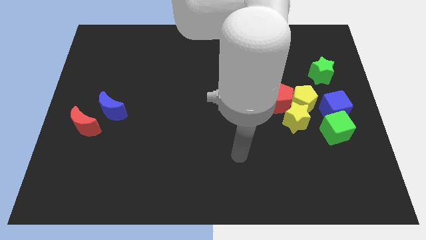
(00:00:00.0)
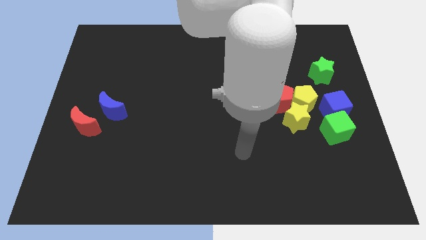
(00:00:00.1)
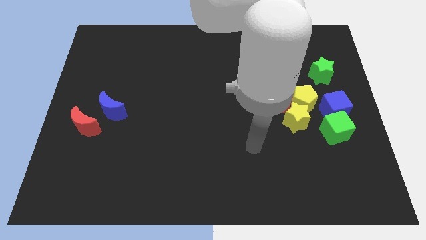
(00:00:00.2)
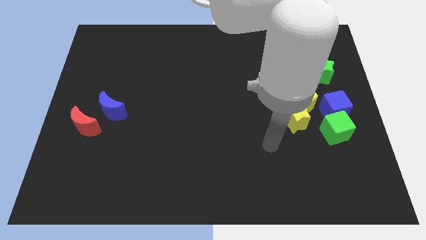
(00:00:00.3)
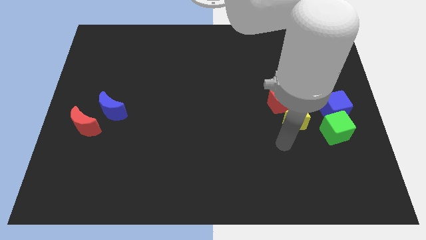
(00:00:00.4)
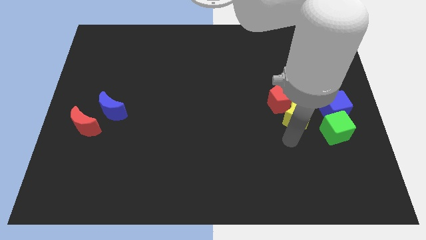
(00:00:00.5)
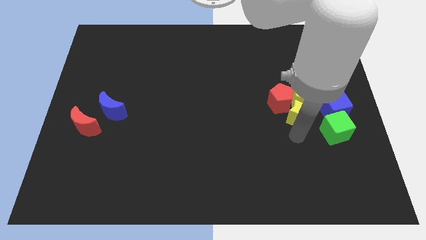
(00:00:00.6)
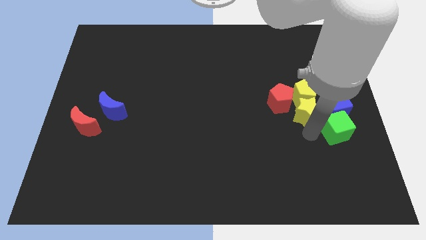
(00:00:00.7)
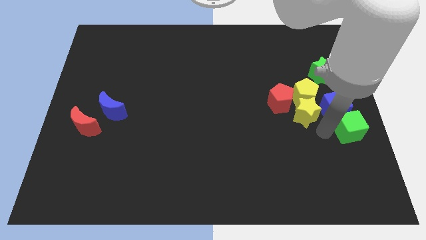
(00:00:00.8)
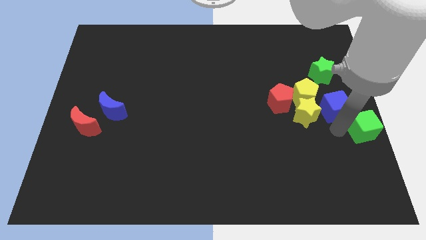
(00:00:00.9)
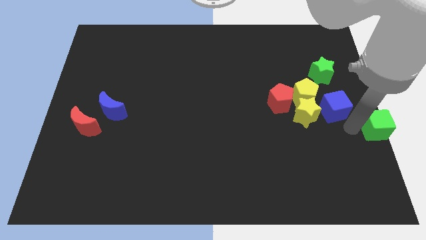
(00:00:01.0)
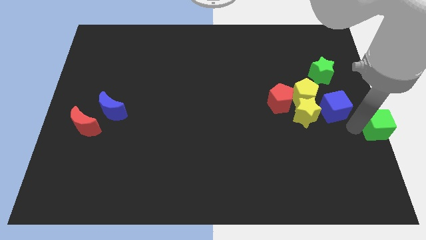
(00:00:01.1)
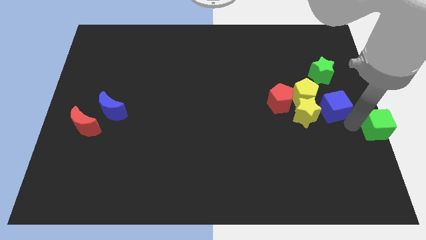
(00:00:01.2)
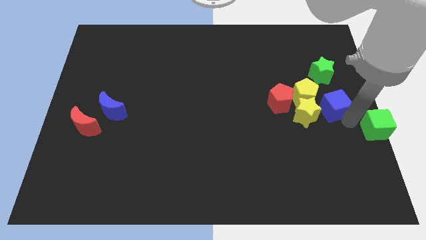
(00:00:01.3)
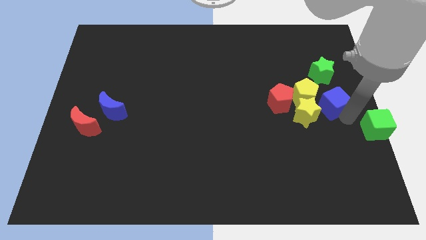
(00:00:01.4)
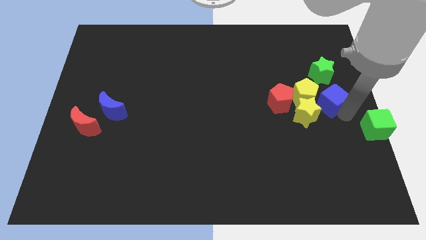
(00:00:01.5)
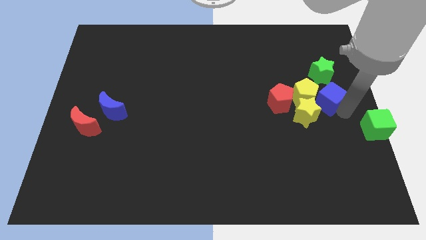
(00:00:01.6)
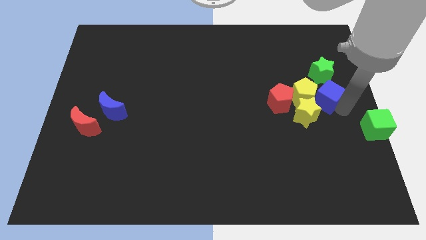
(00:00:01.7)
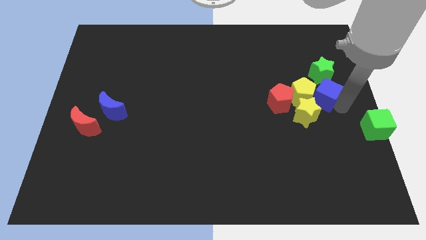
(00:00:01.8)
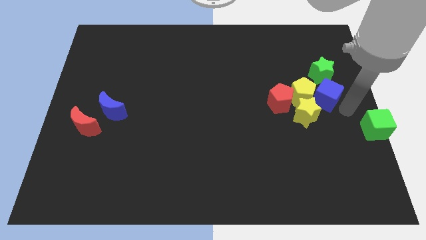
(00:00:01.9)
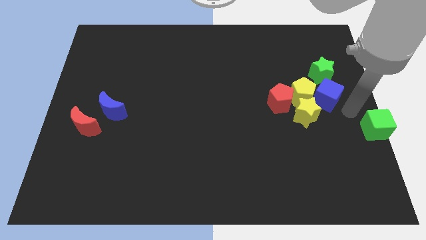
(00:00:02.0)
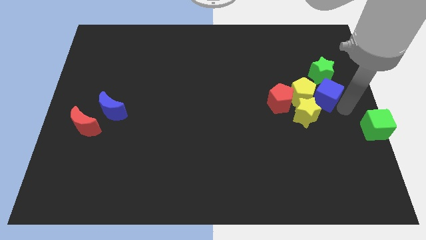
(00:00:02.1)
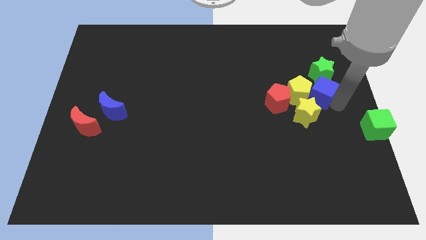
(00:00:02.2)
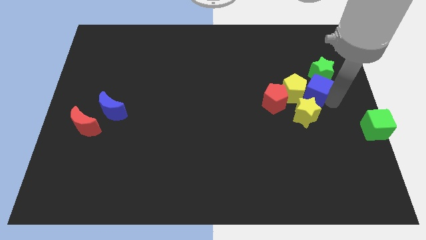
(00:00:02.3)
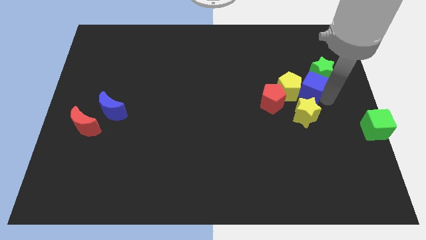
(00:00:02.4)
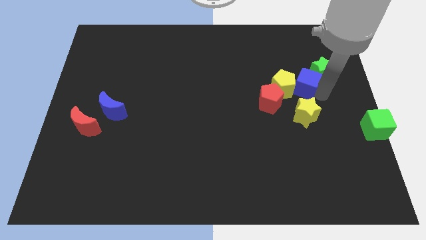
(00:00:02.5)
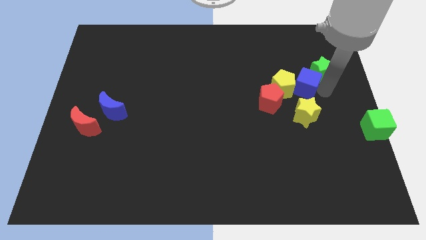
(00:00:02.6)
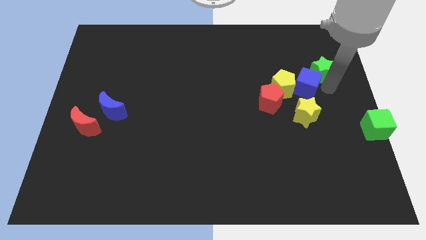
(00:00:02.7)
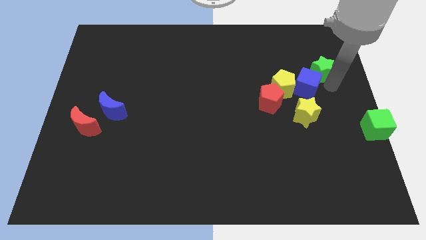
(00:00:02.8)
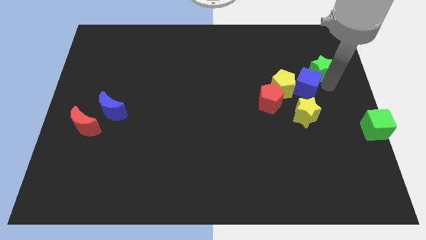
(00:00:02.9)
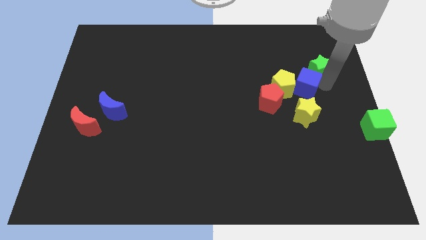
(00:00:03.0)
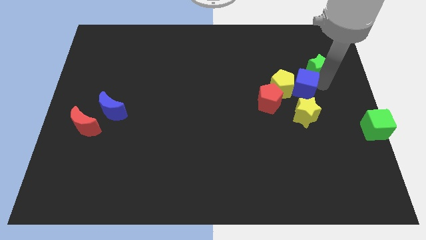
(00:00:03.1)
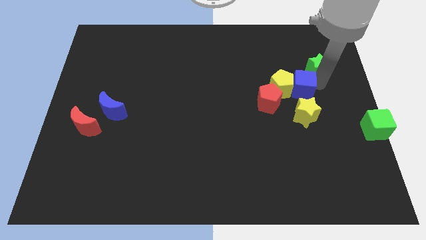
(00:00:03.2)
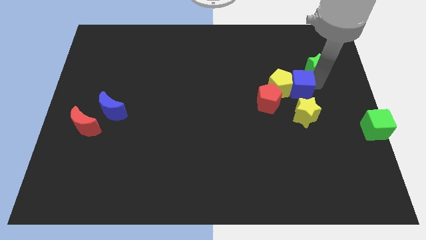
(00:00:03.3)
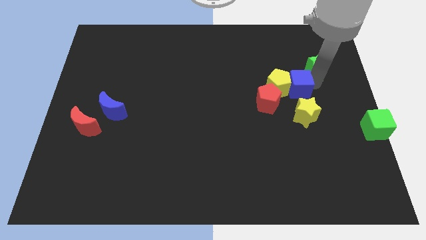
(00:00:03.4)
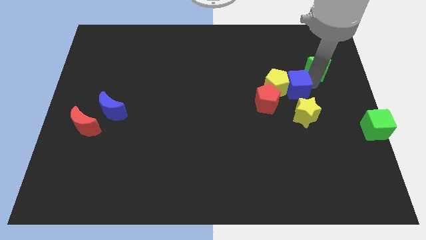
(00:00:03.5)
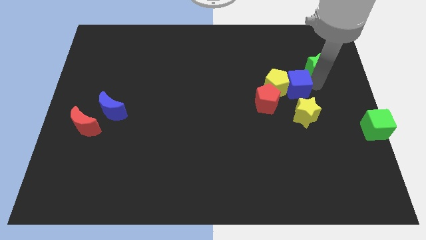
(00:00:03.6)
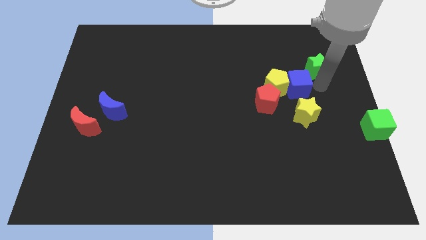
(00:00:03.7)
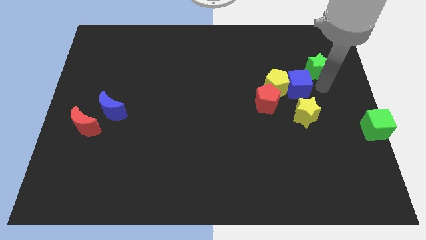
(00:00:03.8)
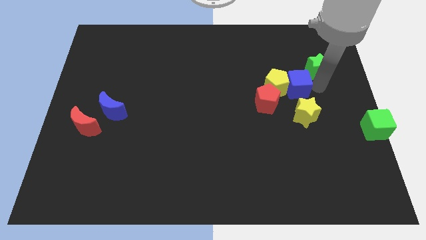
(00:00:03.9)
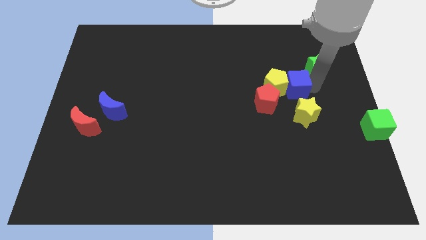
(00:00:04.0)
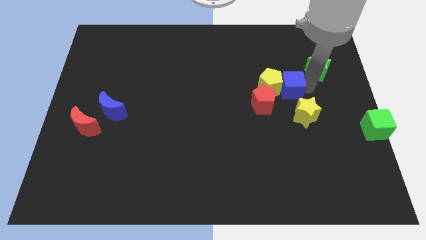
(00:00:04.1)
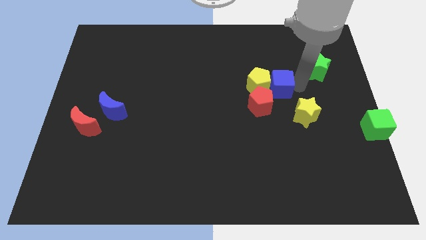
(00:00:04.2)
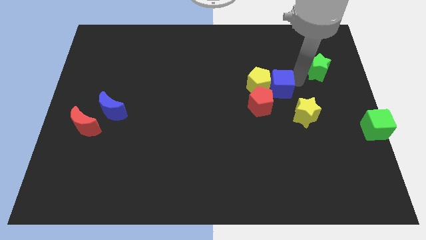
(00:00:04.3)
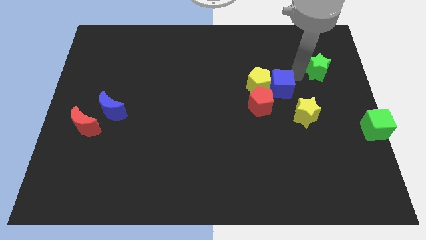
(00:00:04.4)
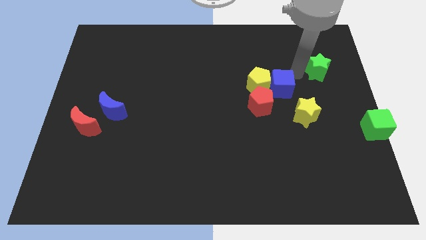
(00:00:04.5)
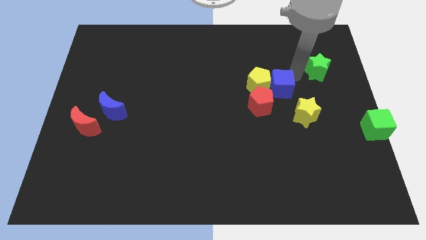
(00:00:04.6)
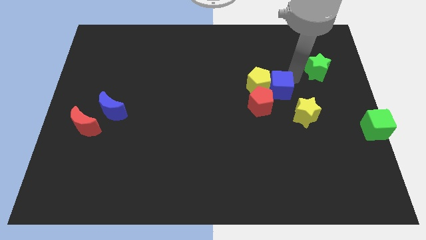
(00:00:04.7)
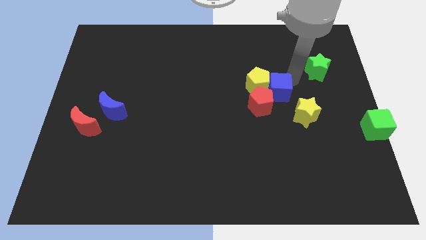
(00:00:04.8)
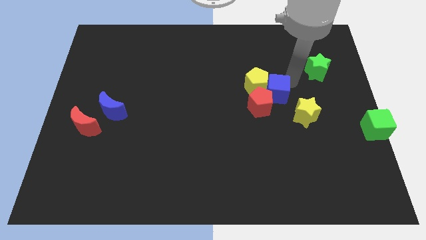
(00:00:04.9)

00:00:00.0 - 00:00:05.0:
move the blue cube close to the red pentagon

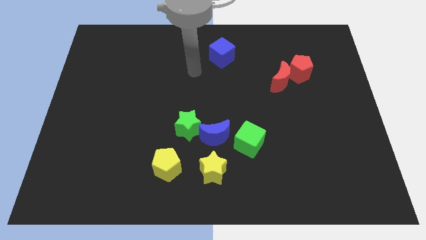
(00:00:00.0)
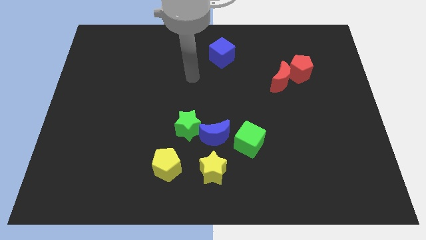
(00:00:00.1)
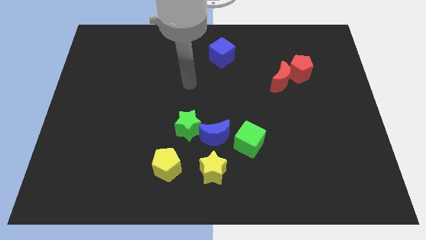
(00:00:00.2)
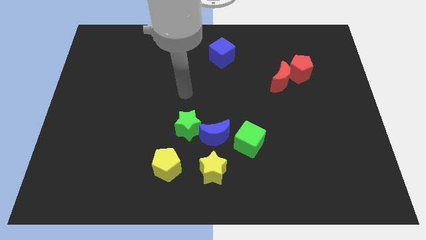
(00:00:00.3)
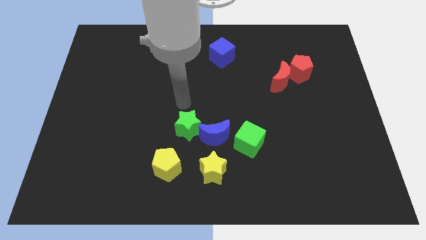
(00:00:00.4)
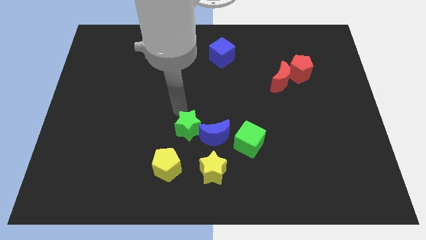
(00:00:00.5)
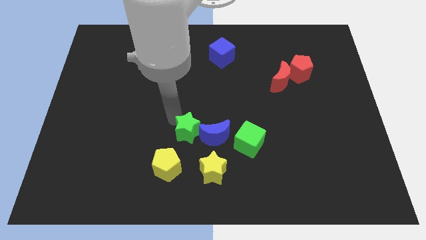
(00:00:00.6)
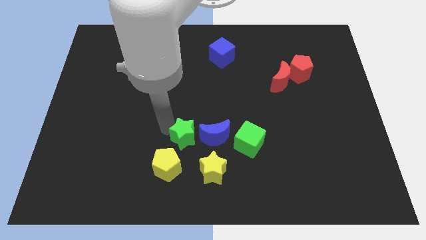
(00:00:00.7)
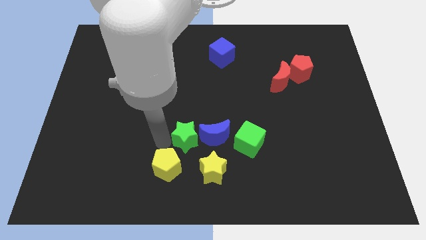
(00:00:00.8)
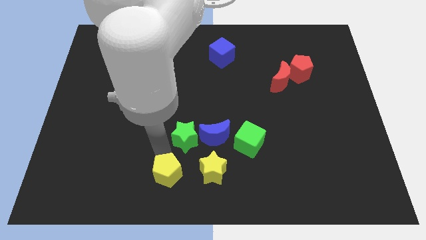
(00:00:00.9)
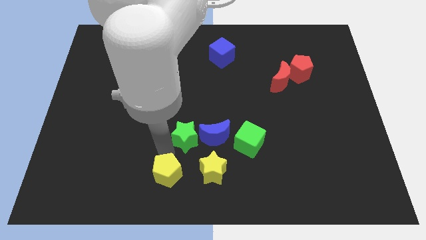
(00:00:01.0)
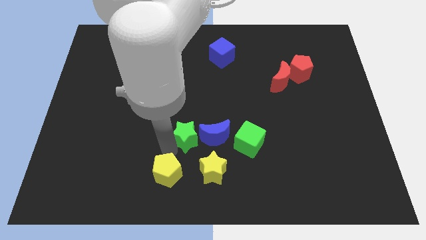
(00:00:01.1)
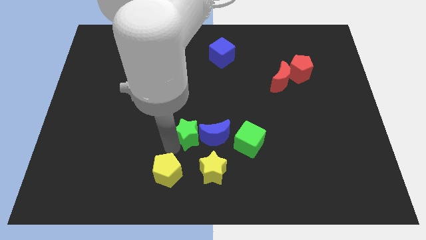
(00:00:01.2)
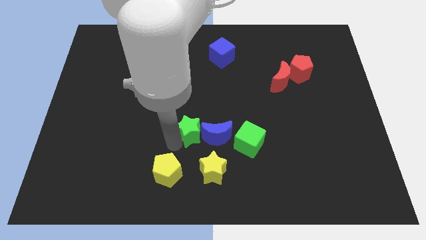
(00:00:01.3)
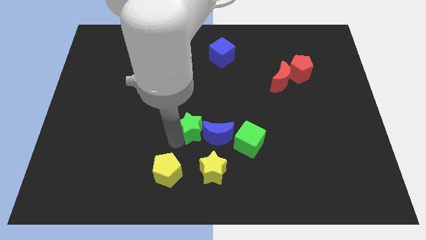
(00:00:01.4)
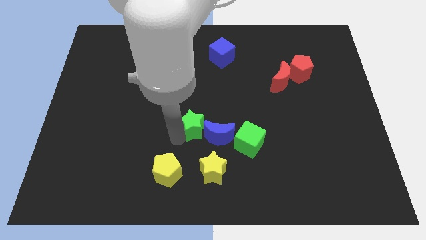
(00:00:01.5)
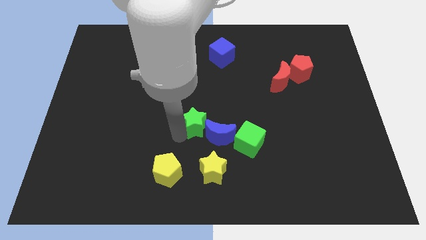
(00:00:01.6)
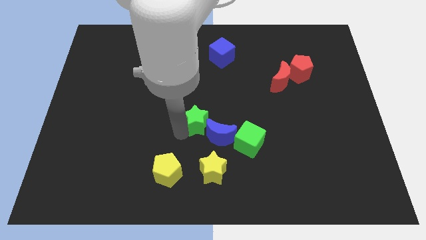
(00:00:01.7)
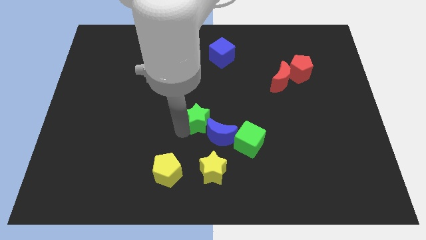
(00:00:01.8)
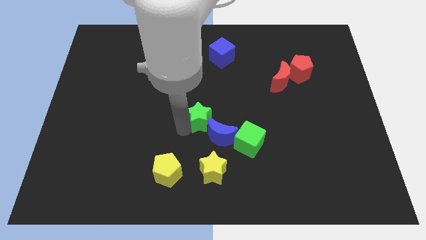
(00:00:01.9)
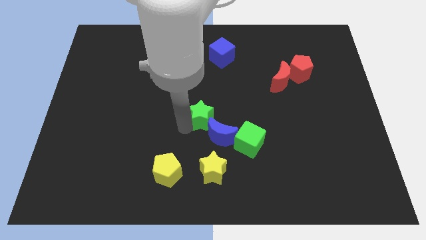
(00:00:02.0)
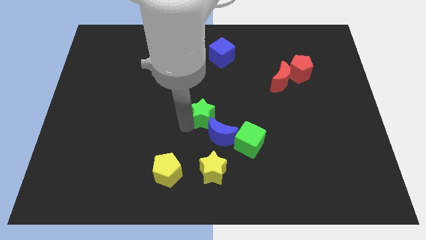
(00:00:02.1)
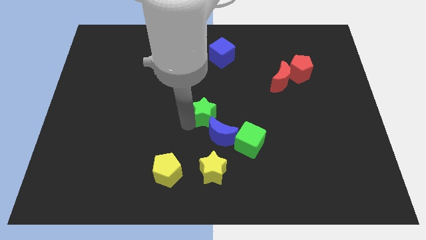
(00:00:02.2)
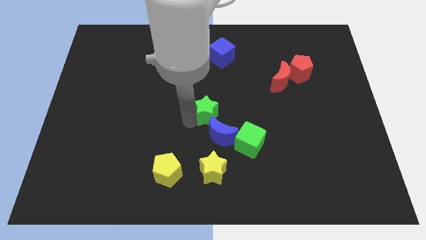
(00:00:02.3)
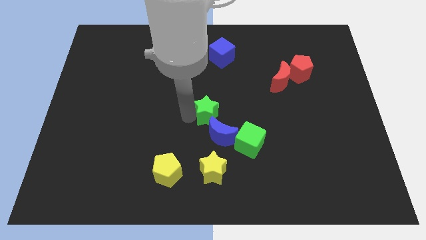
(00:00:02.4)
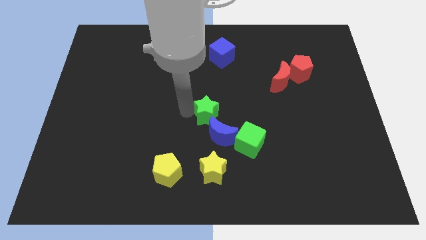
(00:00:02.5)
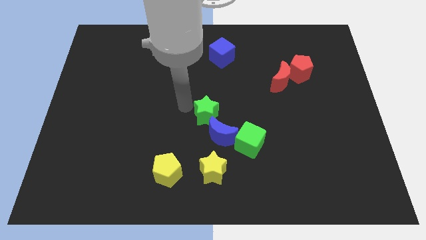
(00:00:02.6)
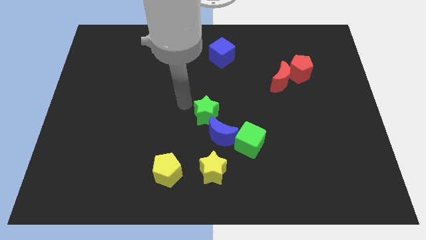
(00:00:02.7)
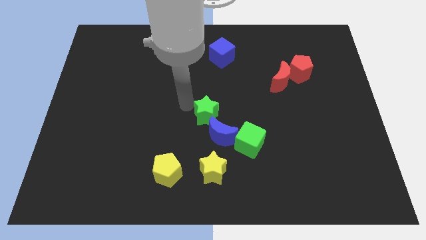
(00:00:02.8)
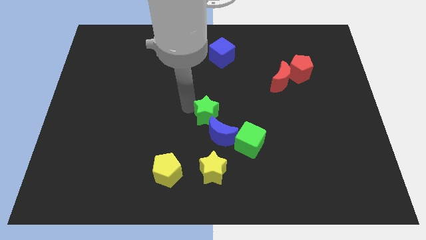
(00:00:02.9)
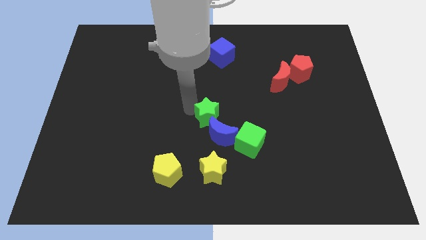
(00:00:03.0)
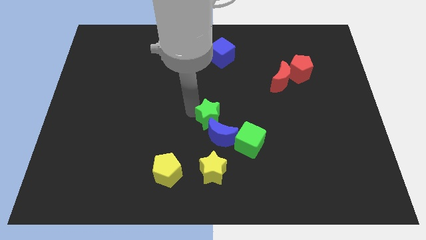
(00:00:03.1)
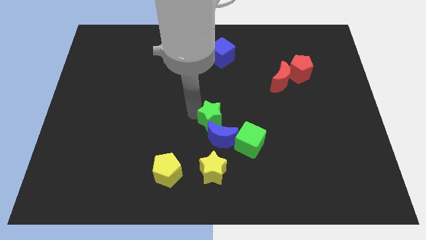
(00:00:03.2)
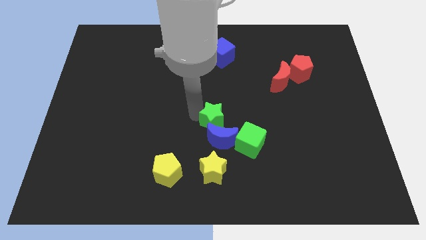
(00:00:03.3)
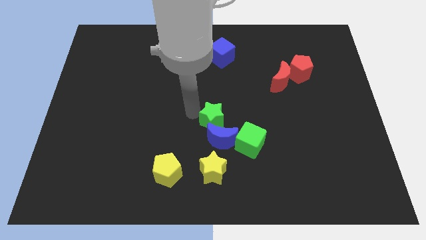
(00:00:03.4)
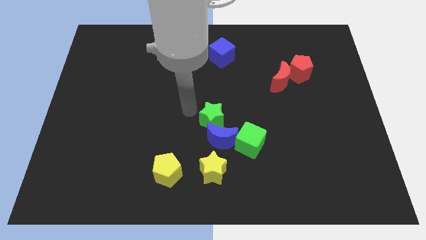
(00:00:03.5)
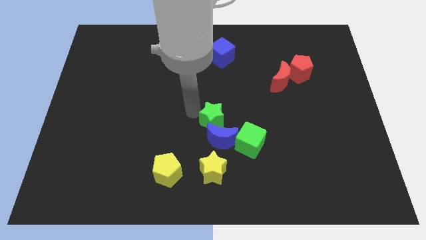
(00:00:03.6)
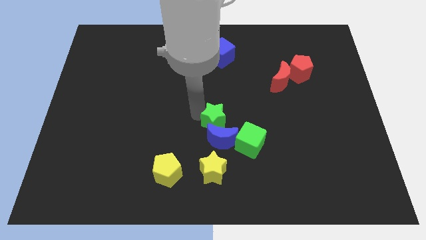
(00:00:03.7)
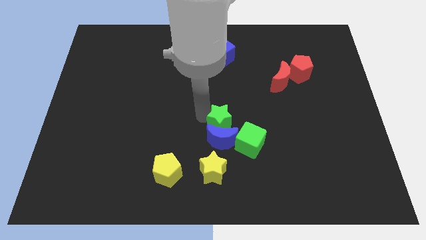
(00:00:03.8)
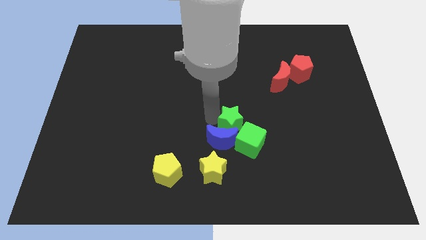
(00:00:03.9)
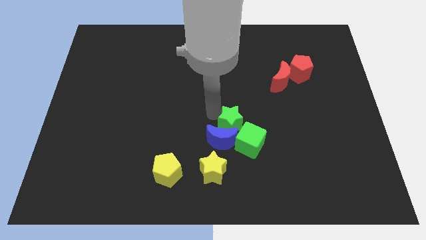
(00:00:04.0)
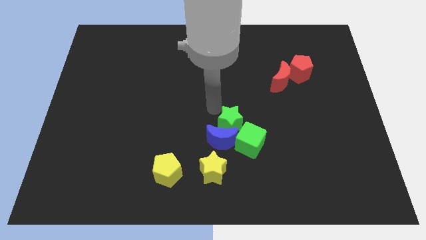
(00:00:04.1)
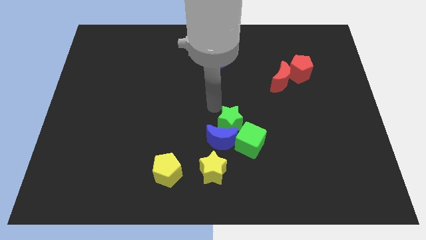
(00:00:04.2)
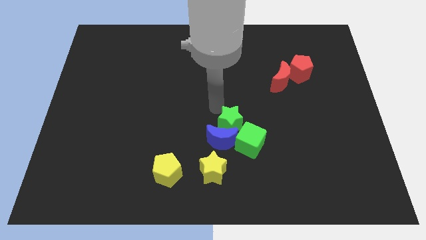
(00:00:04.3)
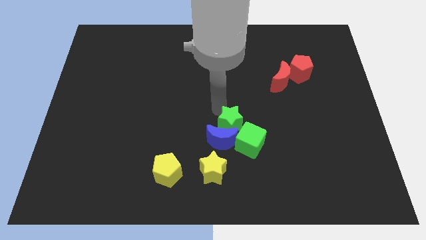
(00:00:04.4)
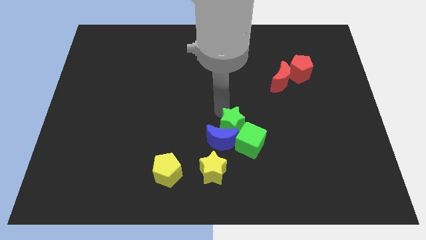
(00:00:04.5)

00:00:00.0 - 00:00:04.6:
put the green star to the green cube
